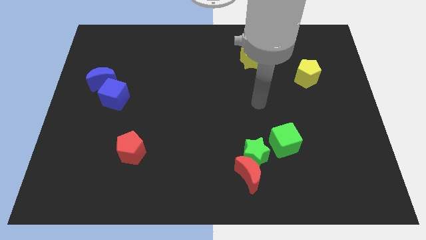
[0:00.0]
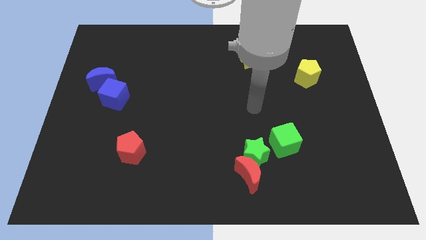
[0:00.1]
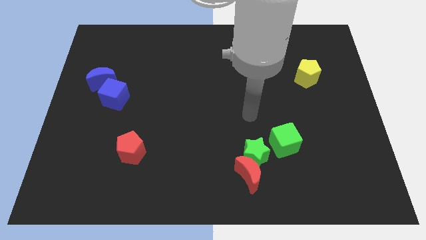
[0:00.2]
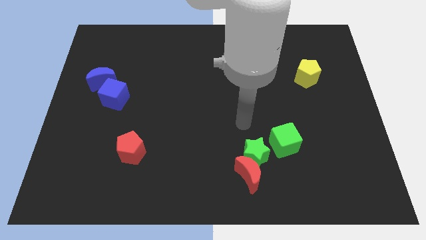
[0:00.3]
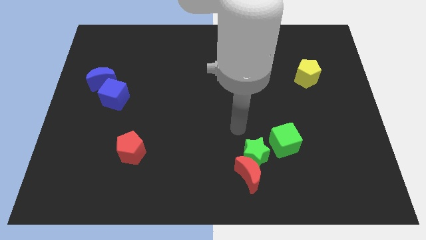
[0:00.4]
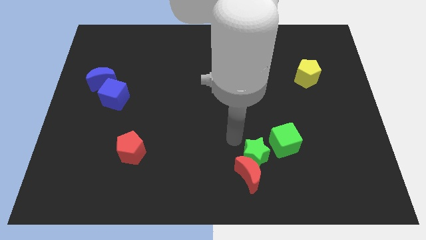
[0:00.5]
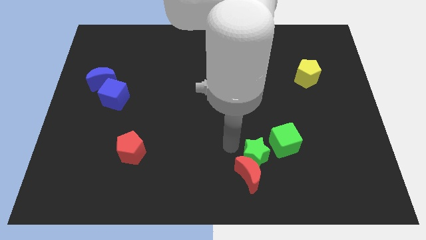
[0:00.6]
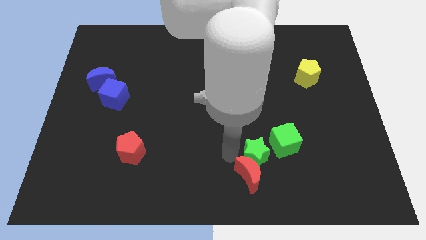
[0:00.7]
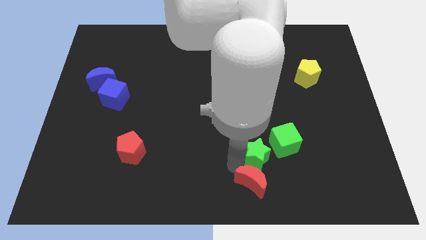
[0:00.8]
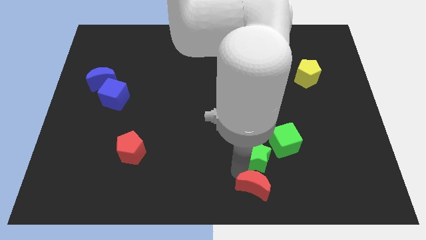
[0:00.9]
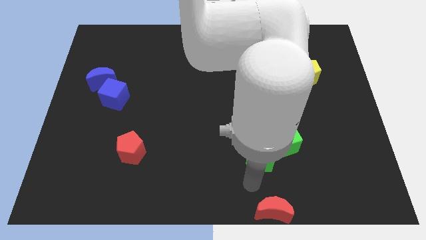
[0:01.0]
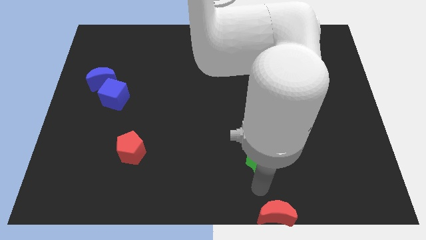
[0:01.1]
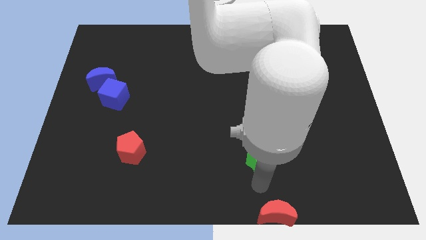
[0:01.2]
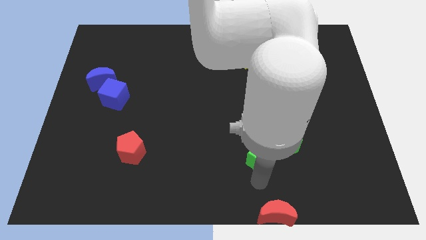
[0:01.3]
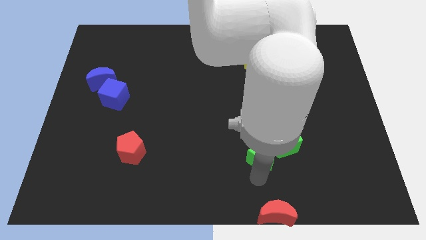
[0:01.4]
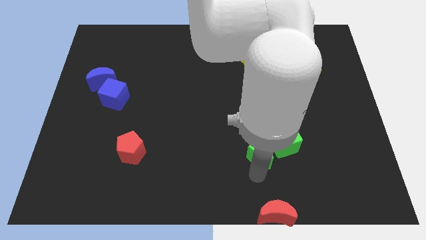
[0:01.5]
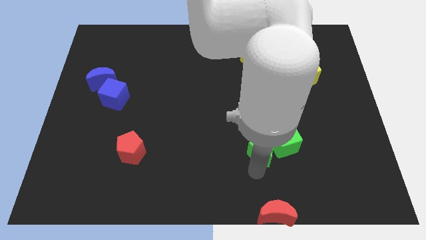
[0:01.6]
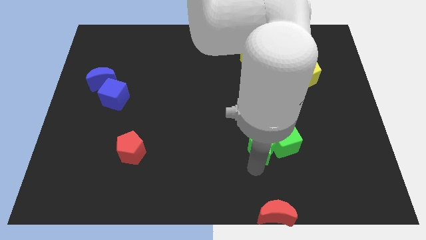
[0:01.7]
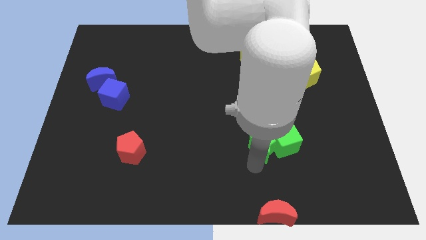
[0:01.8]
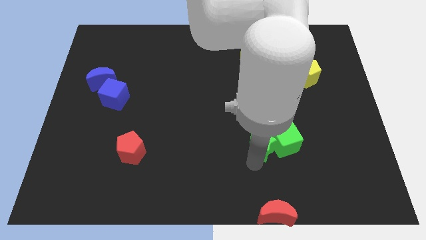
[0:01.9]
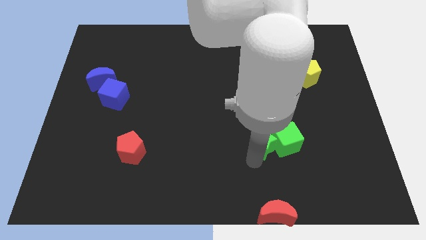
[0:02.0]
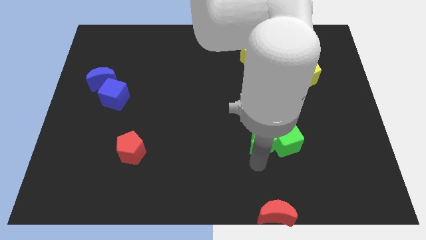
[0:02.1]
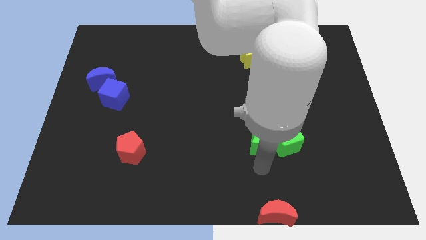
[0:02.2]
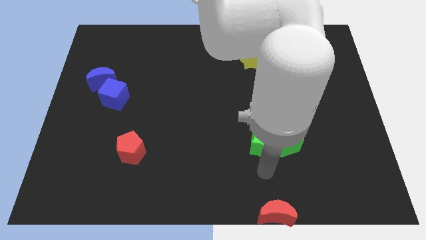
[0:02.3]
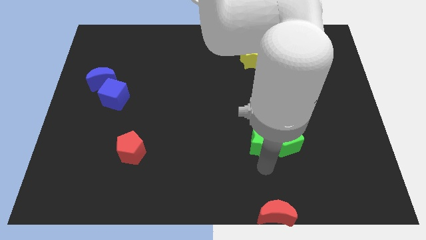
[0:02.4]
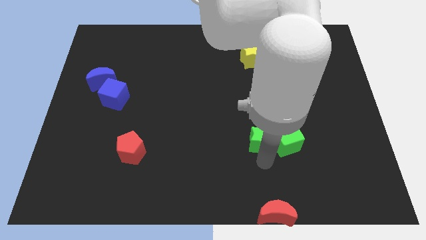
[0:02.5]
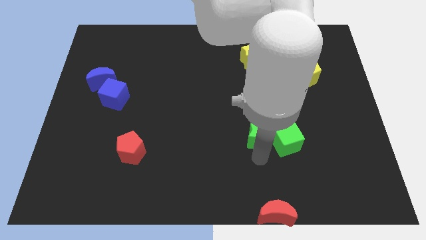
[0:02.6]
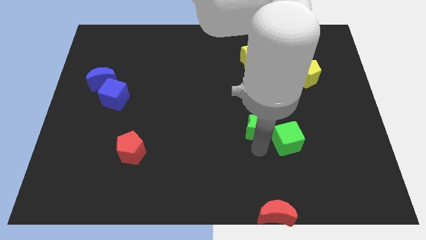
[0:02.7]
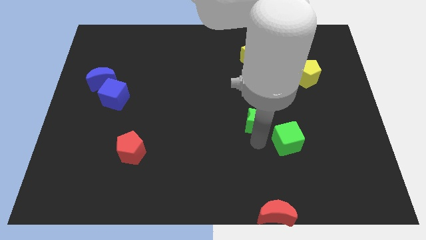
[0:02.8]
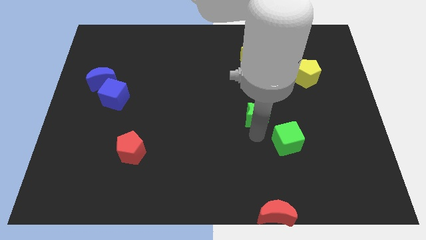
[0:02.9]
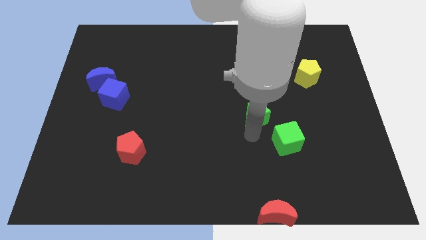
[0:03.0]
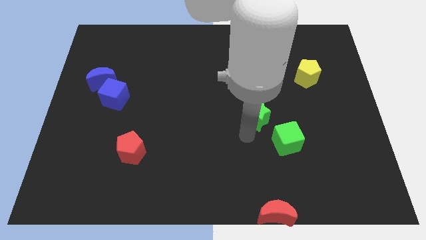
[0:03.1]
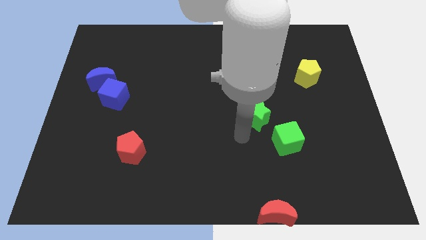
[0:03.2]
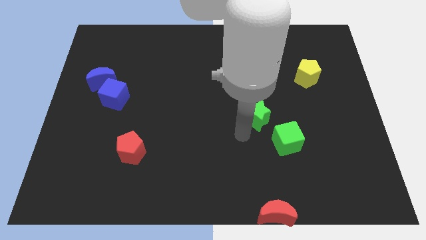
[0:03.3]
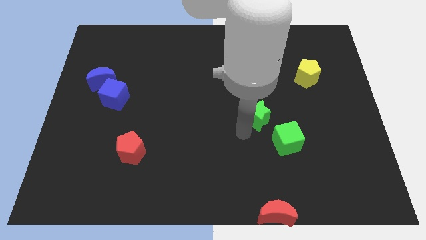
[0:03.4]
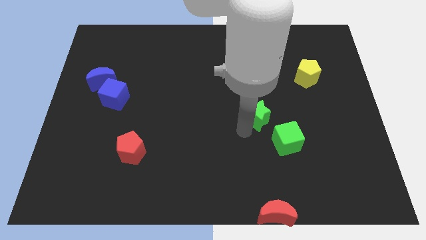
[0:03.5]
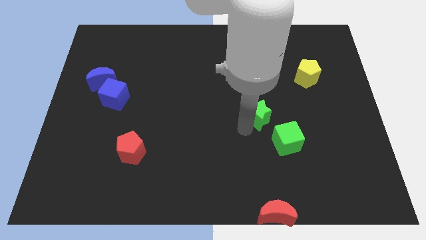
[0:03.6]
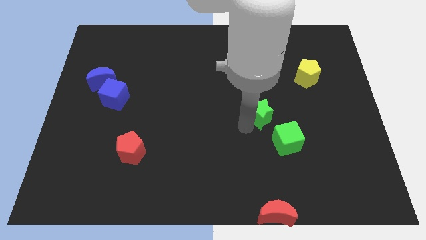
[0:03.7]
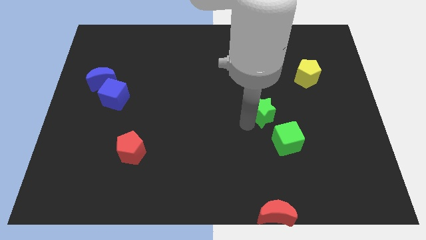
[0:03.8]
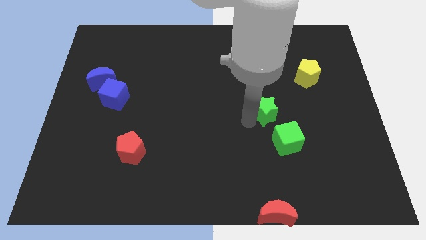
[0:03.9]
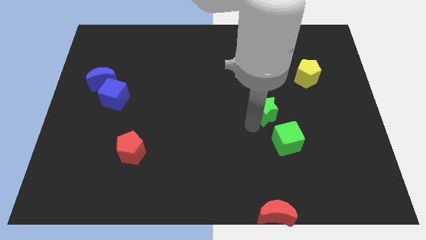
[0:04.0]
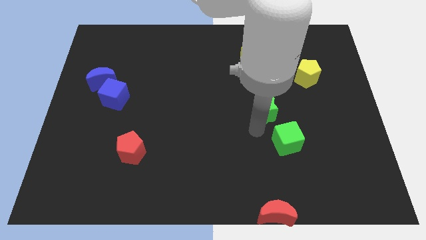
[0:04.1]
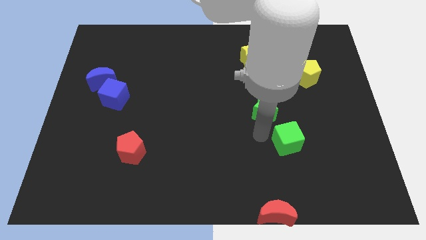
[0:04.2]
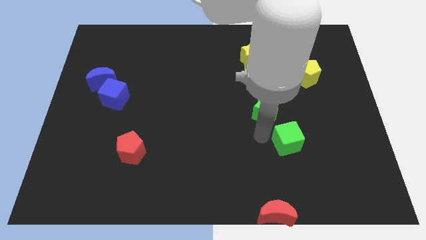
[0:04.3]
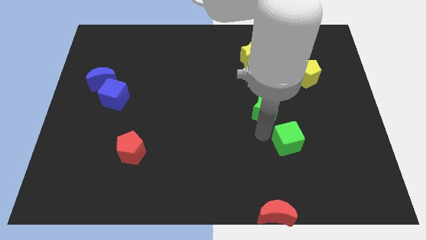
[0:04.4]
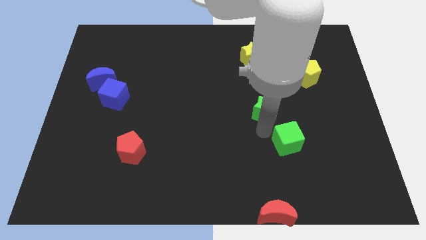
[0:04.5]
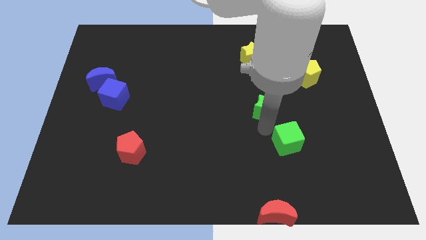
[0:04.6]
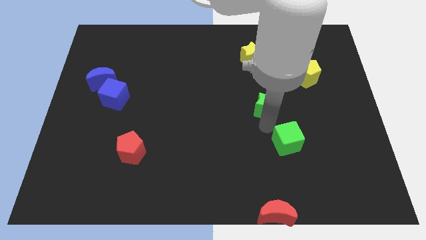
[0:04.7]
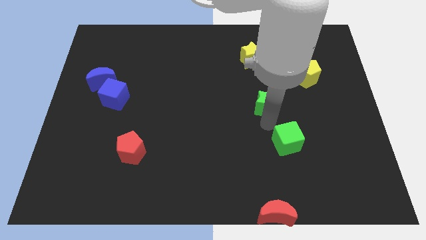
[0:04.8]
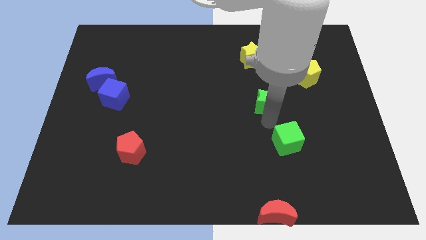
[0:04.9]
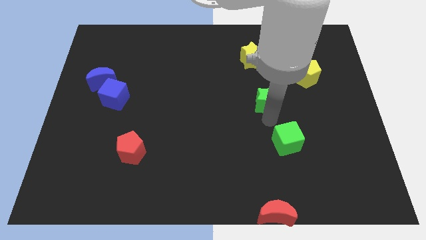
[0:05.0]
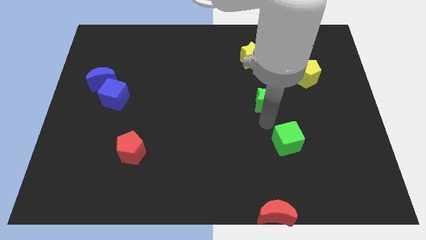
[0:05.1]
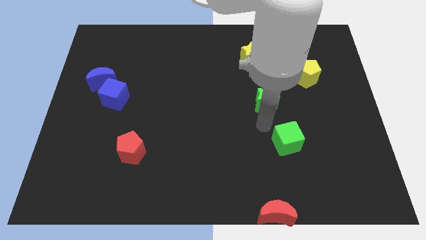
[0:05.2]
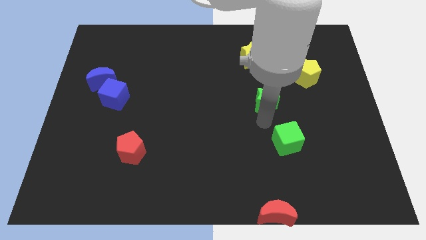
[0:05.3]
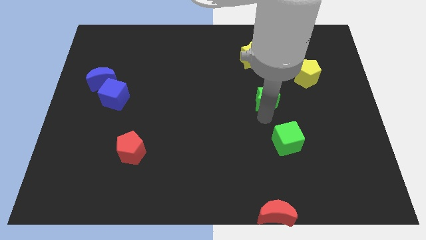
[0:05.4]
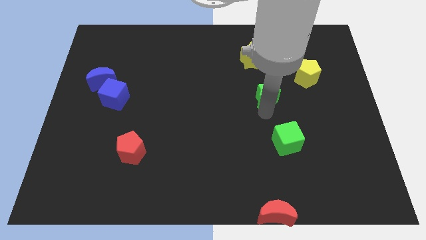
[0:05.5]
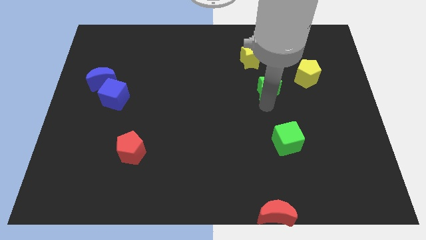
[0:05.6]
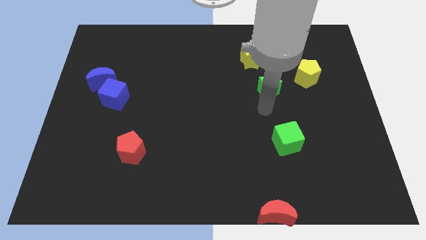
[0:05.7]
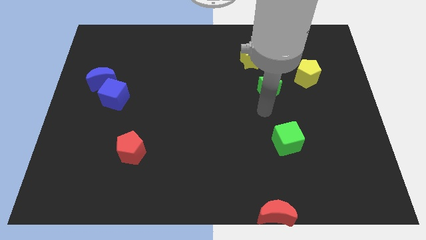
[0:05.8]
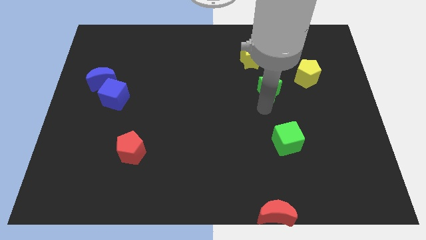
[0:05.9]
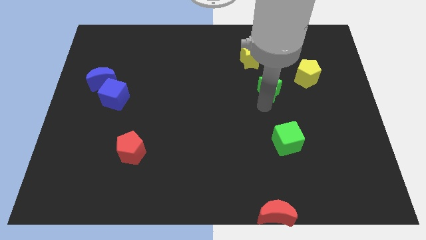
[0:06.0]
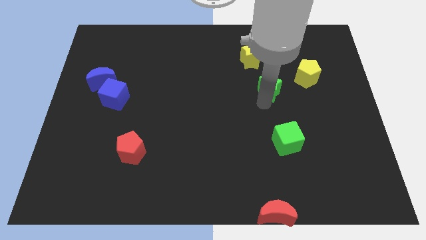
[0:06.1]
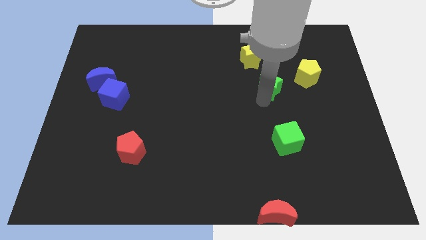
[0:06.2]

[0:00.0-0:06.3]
move the green star to the bottom right side of the yellow star
